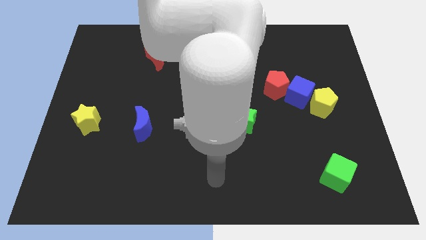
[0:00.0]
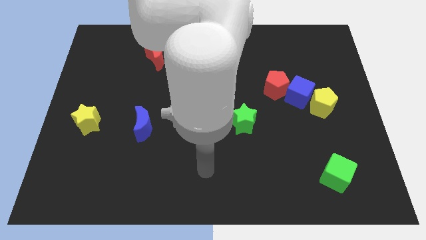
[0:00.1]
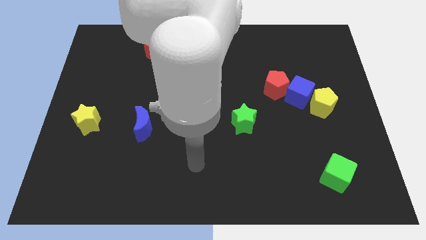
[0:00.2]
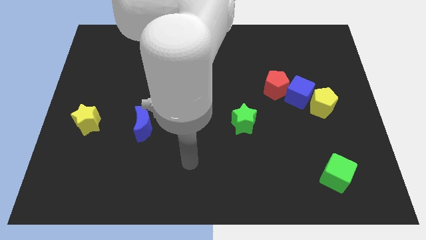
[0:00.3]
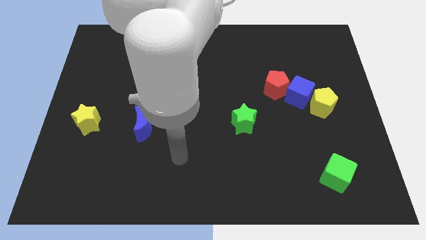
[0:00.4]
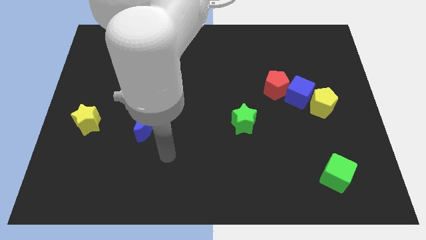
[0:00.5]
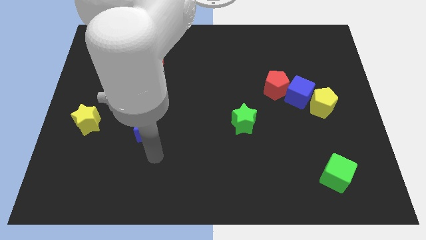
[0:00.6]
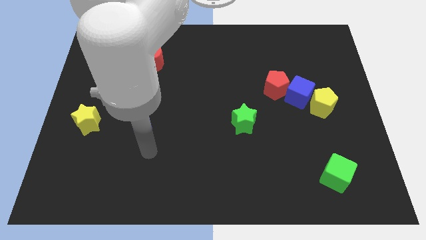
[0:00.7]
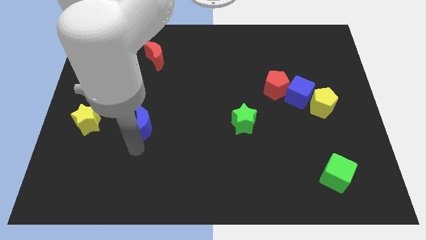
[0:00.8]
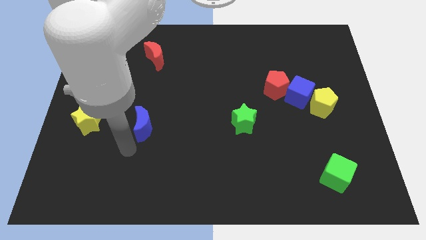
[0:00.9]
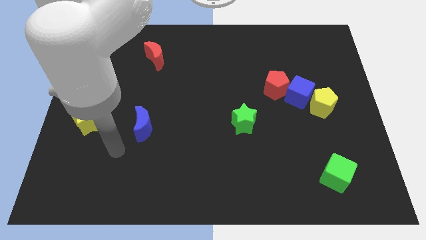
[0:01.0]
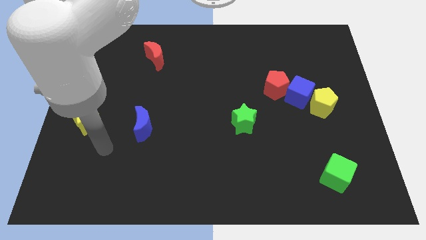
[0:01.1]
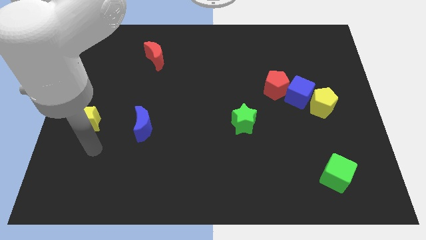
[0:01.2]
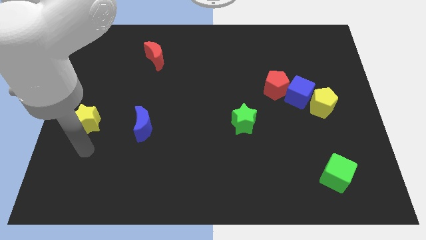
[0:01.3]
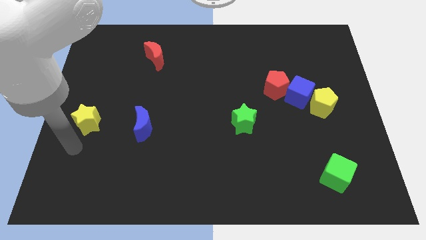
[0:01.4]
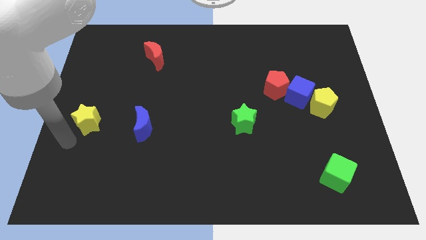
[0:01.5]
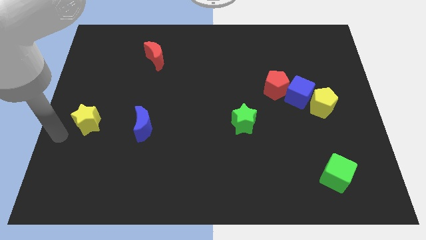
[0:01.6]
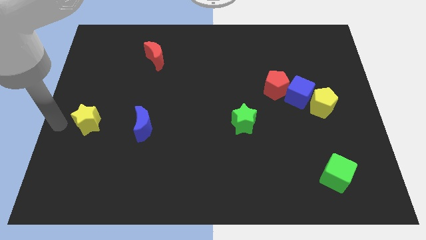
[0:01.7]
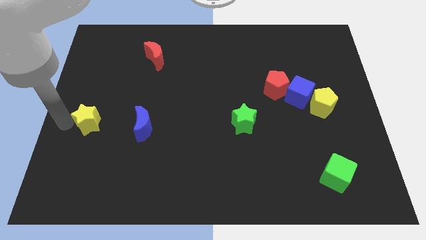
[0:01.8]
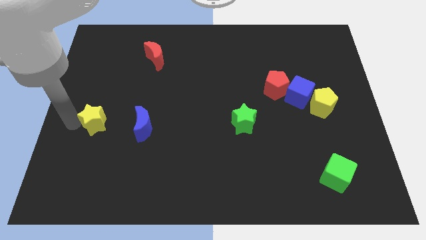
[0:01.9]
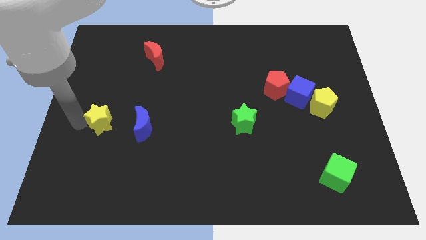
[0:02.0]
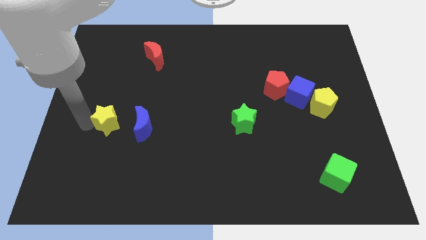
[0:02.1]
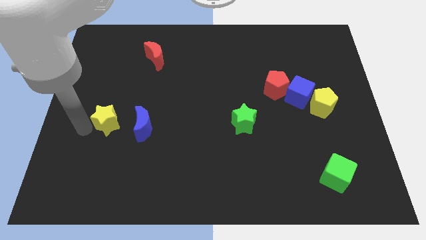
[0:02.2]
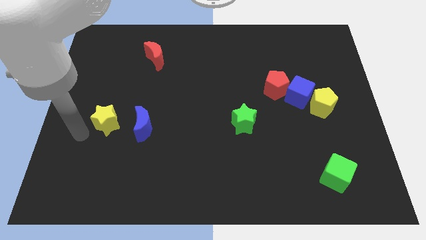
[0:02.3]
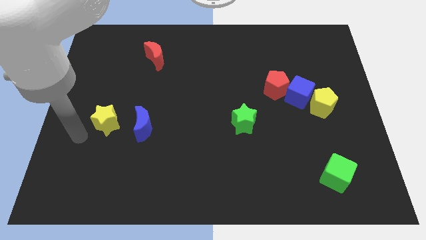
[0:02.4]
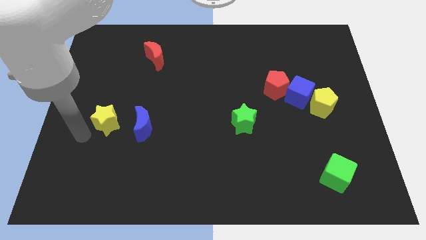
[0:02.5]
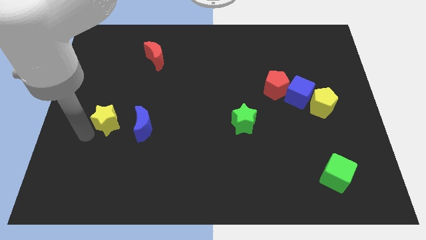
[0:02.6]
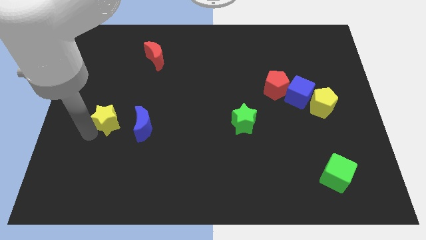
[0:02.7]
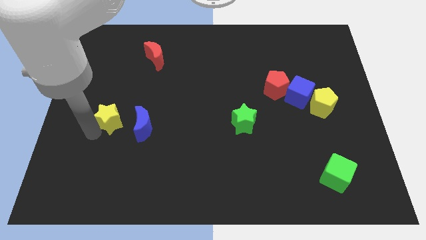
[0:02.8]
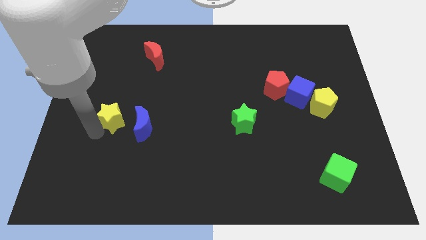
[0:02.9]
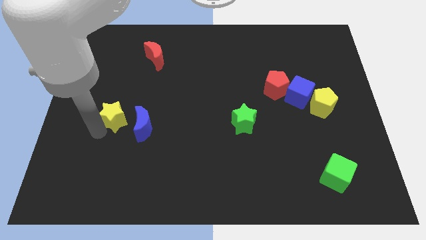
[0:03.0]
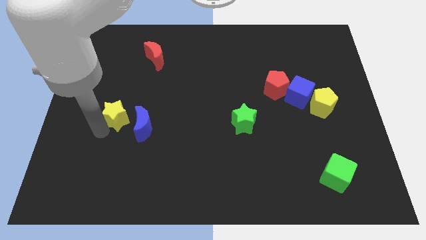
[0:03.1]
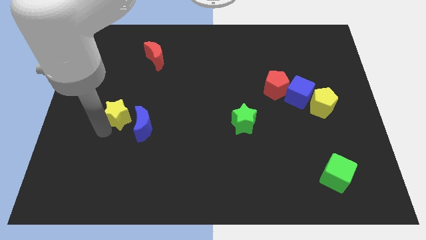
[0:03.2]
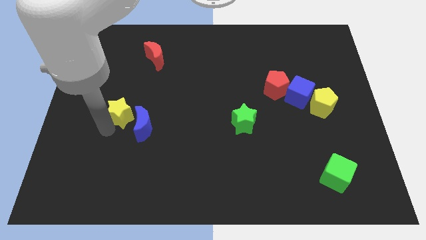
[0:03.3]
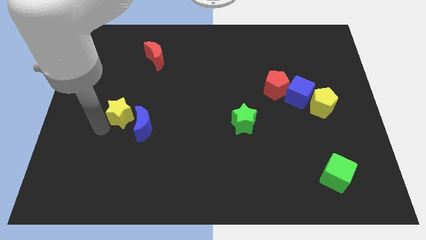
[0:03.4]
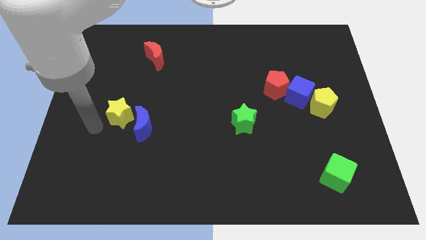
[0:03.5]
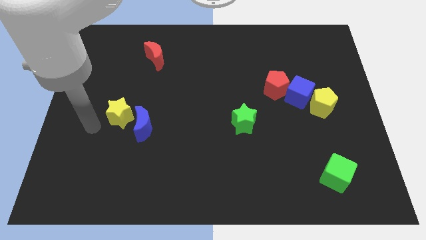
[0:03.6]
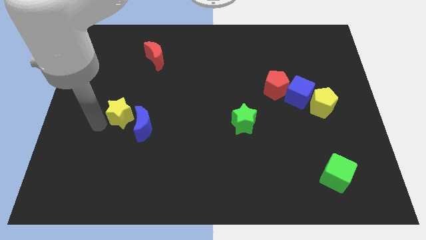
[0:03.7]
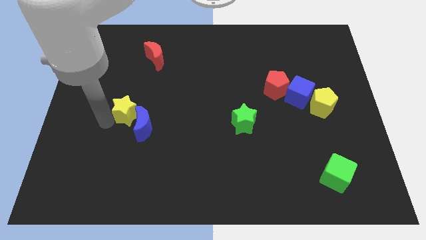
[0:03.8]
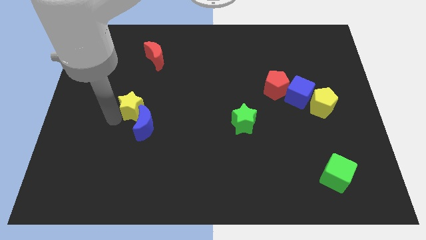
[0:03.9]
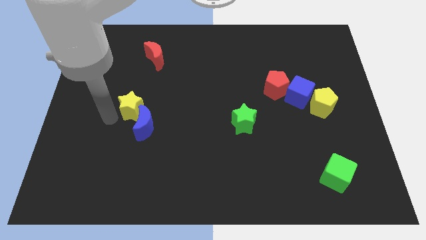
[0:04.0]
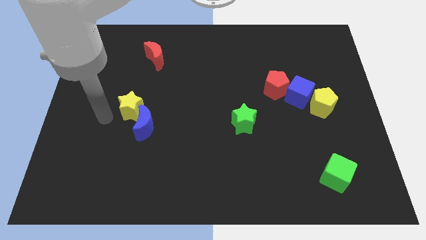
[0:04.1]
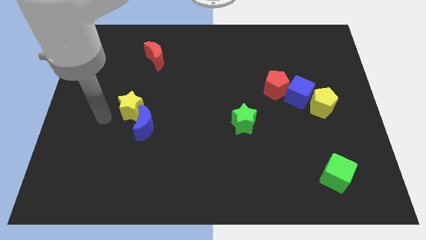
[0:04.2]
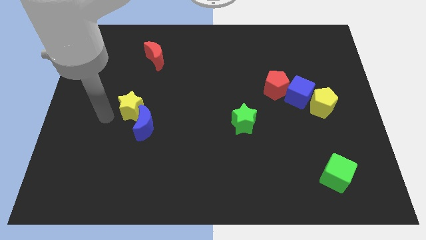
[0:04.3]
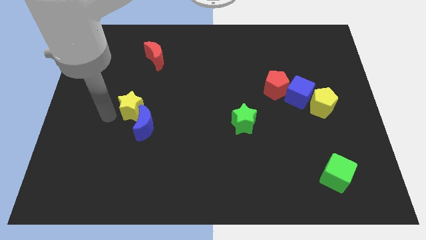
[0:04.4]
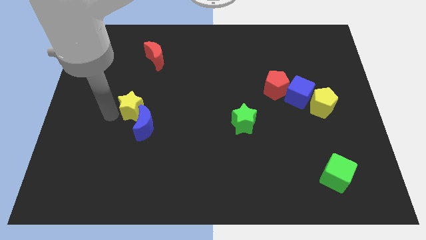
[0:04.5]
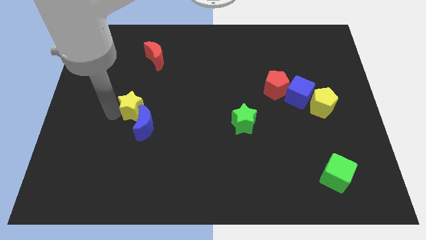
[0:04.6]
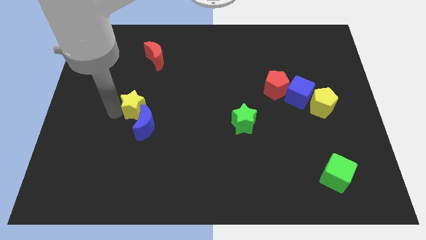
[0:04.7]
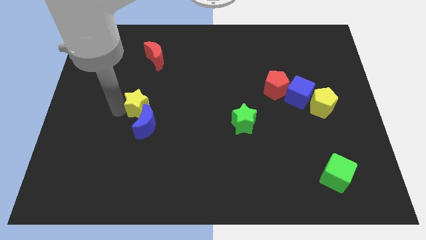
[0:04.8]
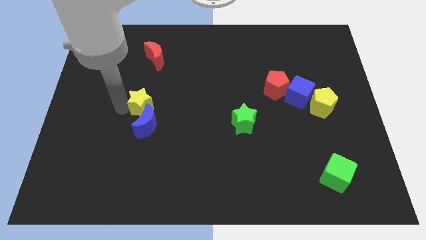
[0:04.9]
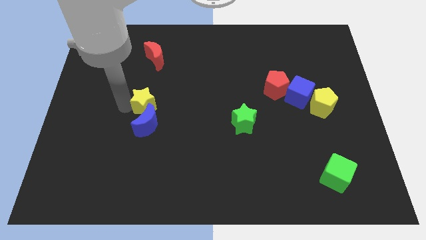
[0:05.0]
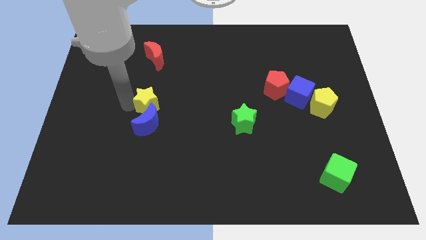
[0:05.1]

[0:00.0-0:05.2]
put the yellow star diagonally up and to the right of the blue moon

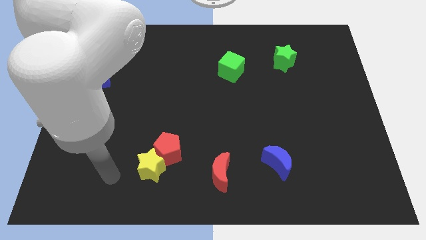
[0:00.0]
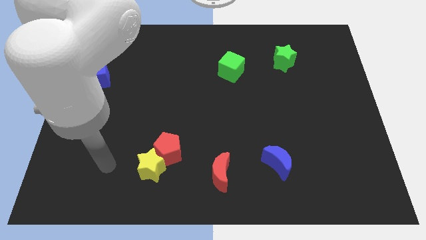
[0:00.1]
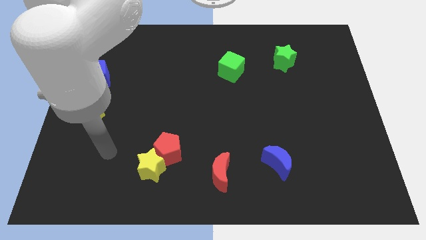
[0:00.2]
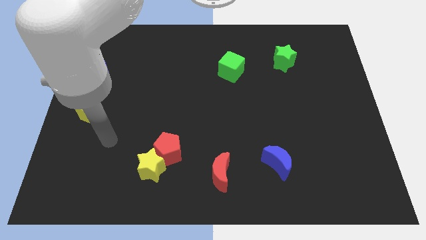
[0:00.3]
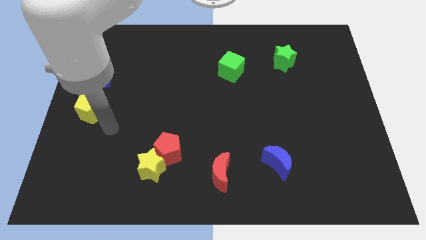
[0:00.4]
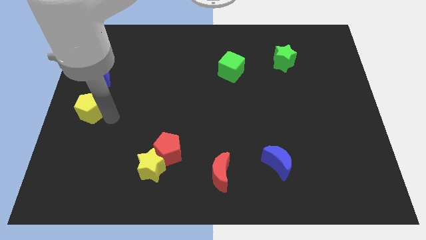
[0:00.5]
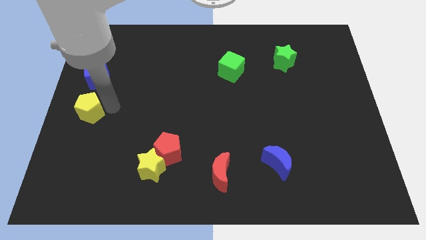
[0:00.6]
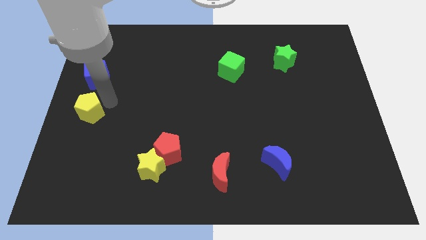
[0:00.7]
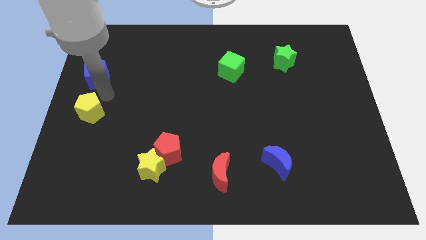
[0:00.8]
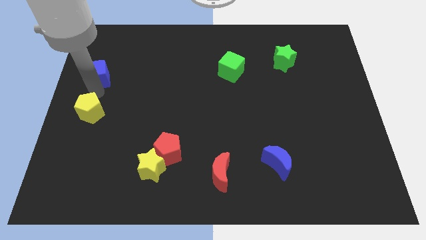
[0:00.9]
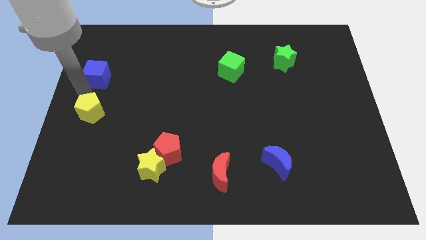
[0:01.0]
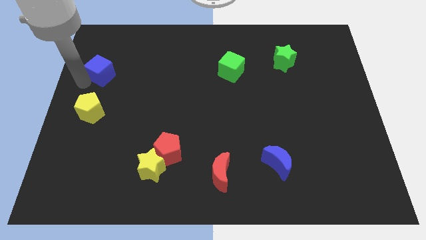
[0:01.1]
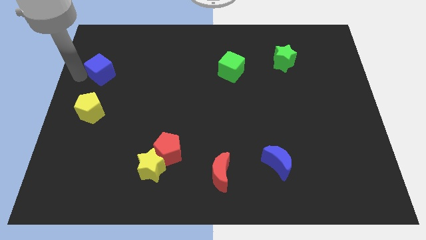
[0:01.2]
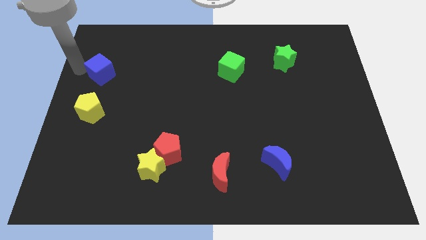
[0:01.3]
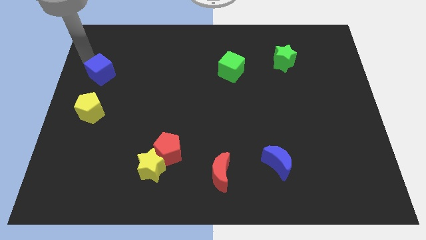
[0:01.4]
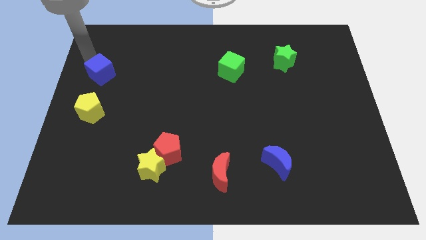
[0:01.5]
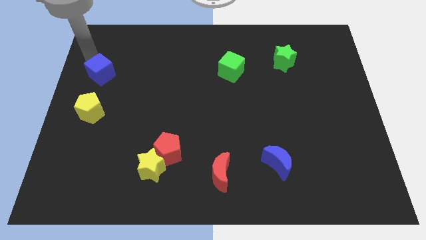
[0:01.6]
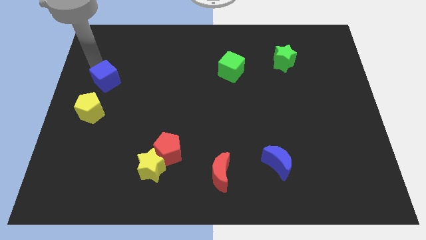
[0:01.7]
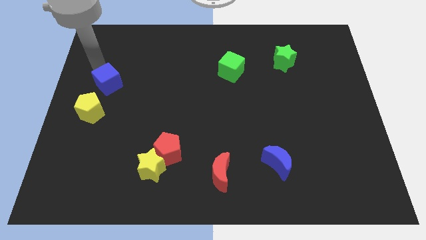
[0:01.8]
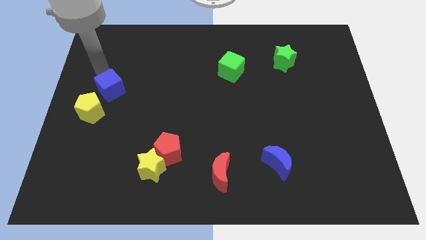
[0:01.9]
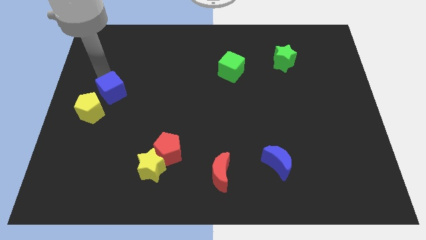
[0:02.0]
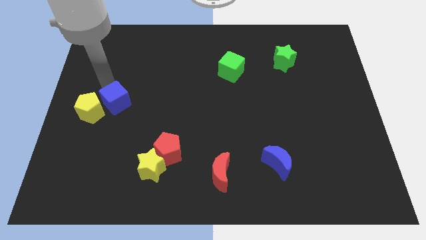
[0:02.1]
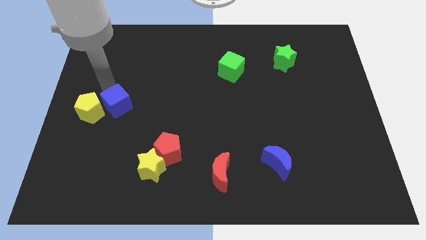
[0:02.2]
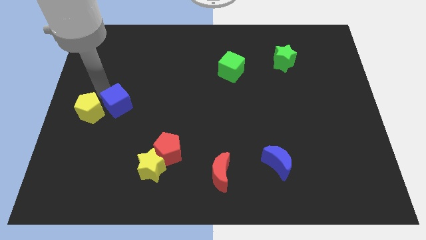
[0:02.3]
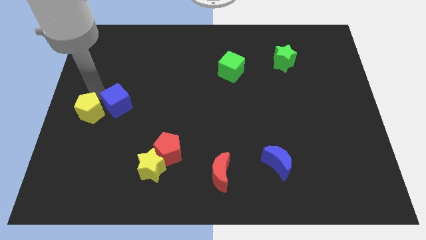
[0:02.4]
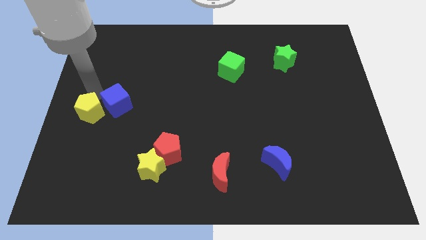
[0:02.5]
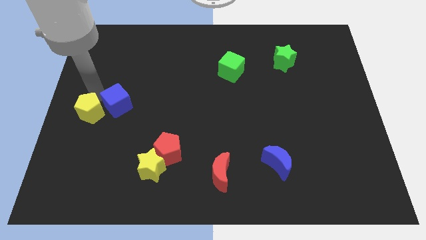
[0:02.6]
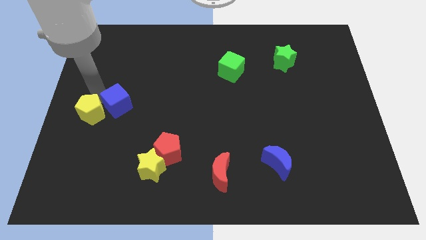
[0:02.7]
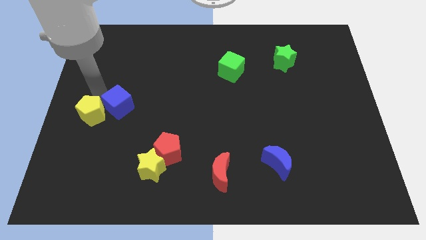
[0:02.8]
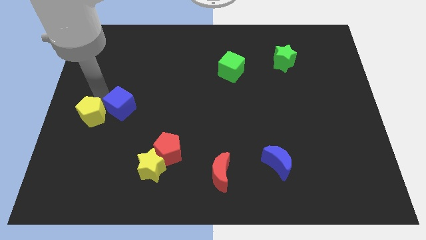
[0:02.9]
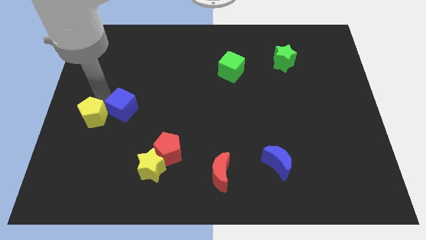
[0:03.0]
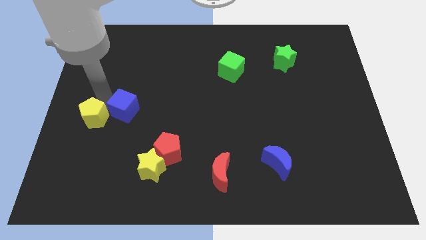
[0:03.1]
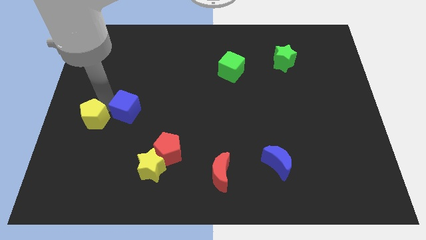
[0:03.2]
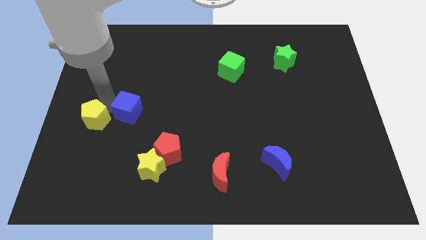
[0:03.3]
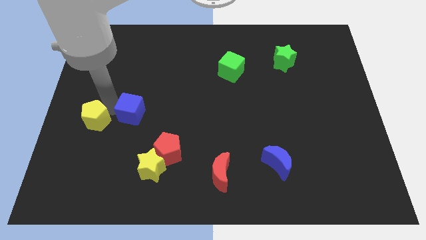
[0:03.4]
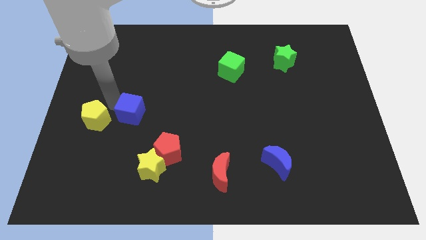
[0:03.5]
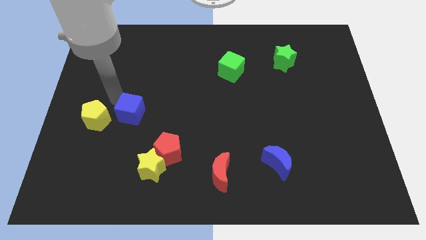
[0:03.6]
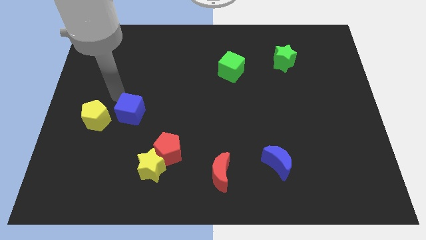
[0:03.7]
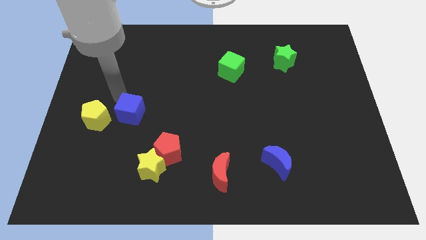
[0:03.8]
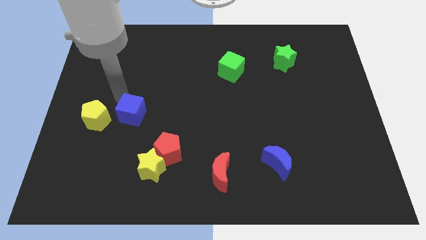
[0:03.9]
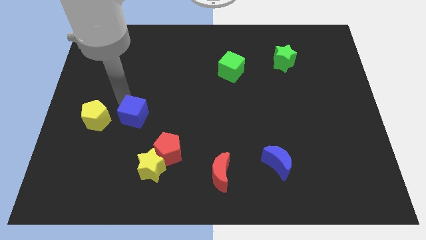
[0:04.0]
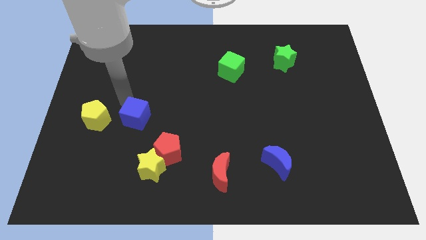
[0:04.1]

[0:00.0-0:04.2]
slide the blue cube to the top left of the red pentagon
